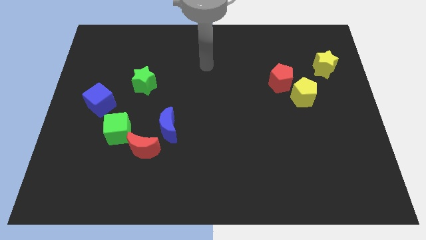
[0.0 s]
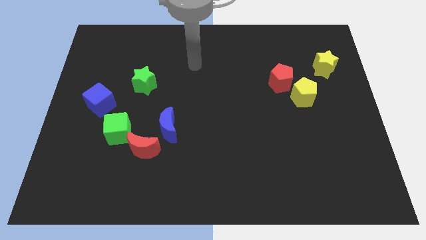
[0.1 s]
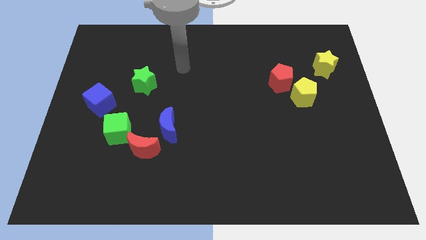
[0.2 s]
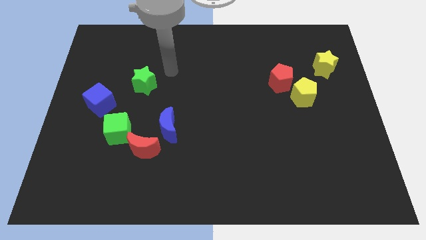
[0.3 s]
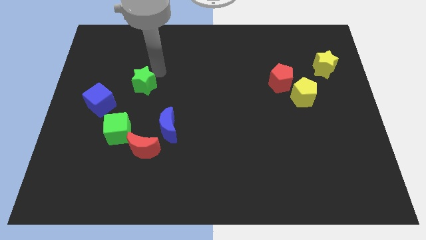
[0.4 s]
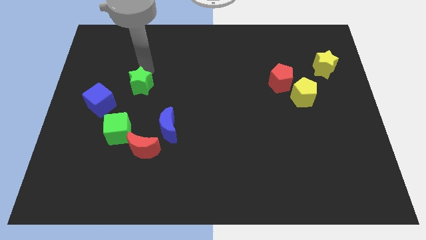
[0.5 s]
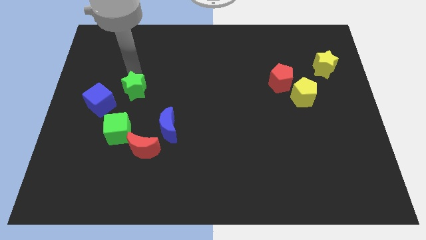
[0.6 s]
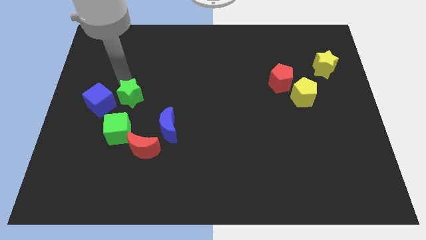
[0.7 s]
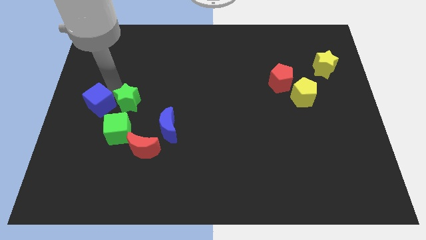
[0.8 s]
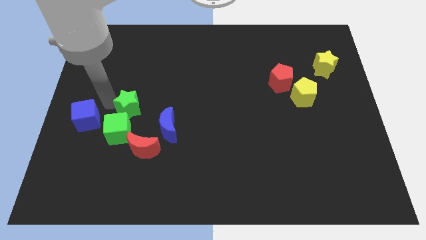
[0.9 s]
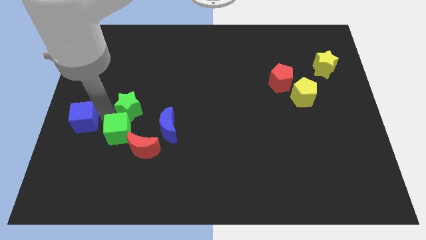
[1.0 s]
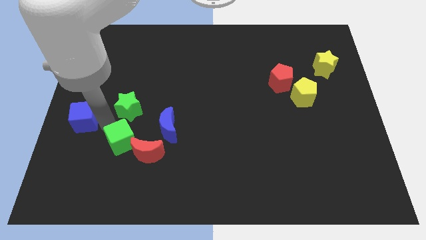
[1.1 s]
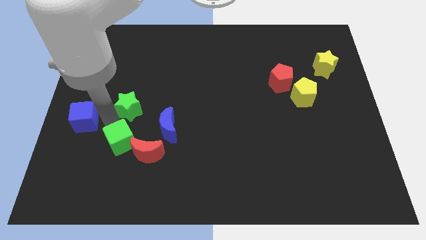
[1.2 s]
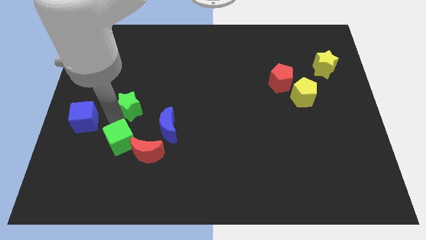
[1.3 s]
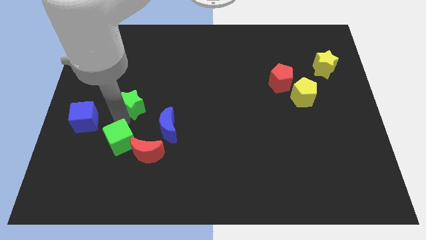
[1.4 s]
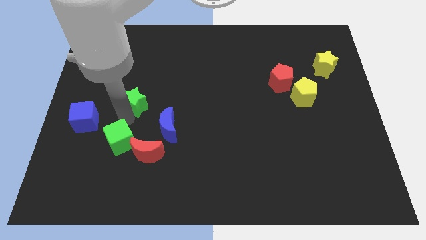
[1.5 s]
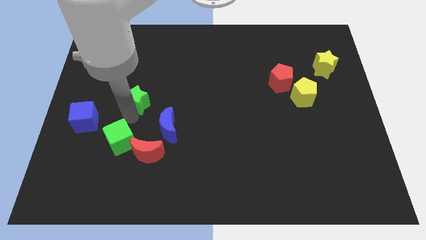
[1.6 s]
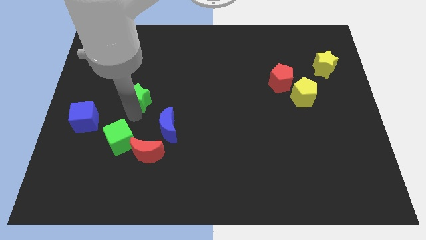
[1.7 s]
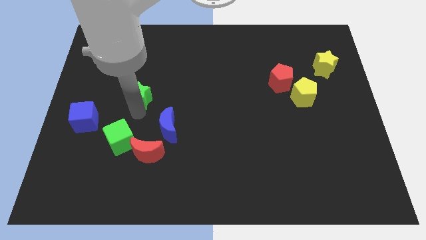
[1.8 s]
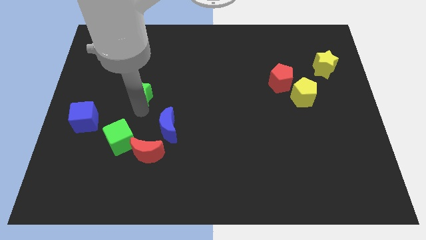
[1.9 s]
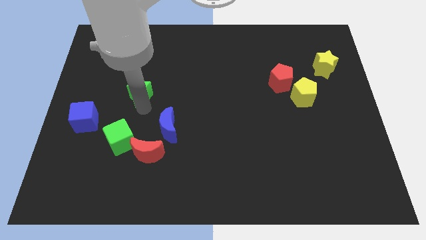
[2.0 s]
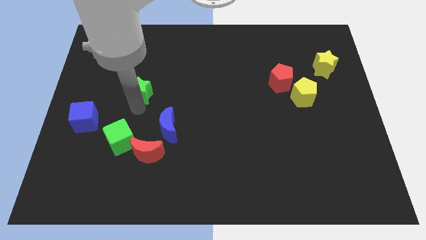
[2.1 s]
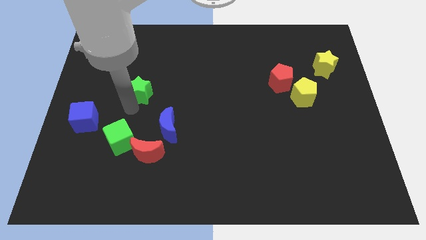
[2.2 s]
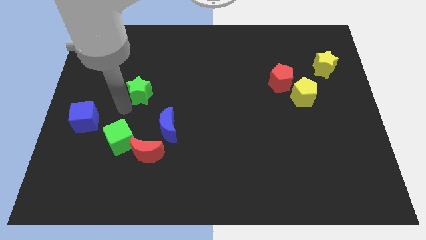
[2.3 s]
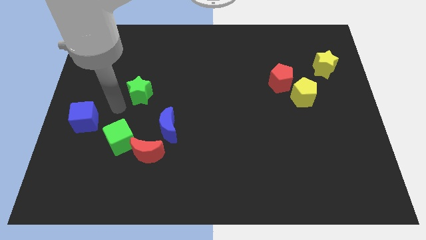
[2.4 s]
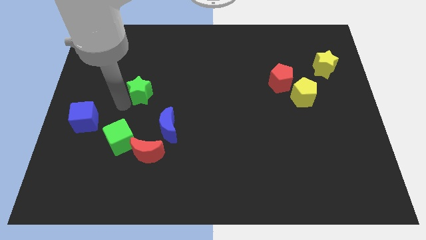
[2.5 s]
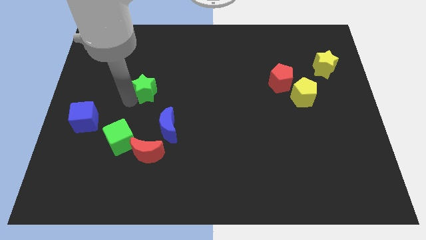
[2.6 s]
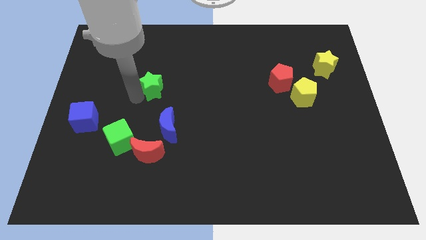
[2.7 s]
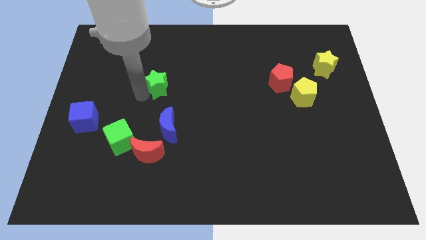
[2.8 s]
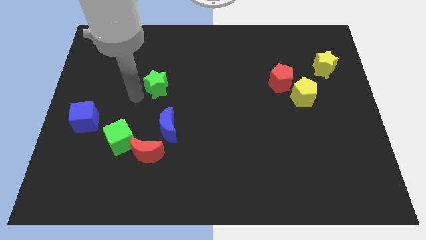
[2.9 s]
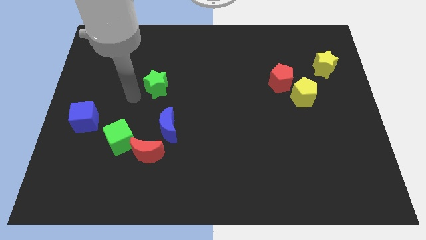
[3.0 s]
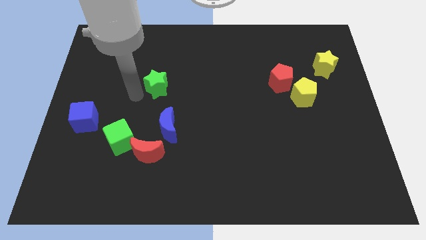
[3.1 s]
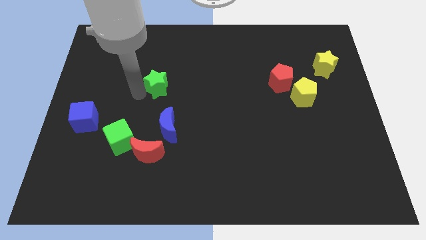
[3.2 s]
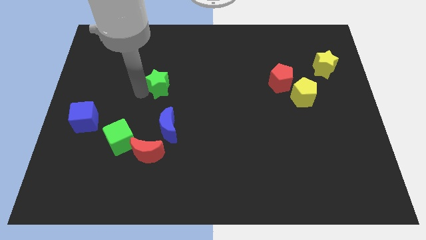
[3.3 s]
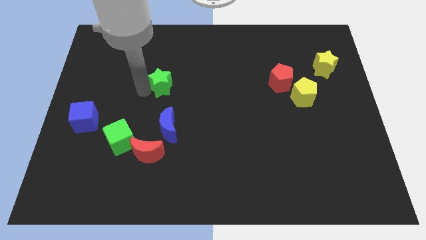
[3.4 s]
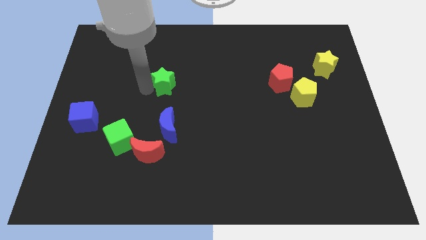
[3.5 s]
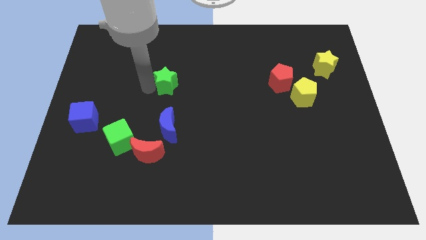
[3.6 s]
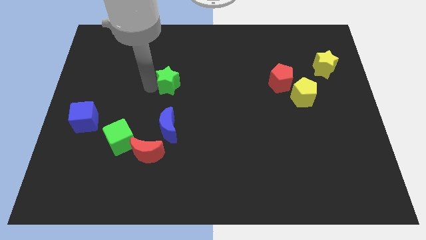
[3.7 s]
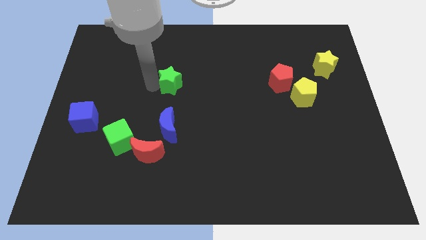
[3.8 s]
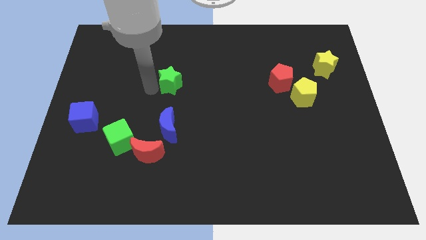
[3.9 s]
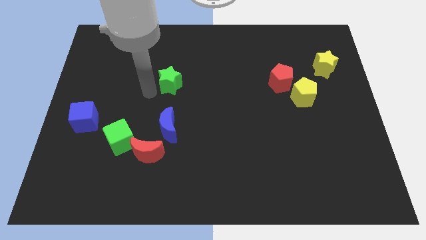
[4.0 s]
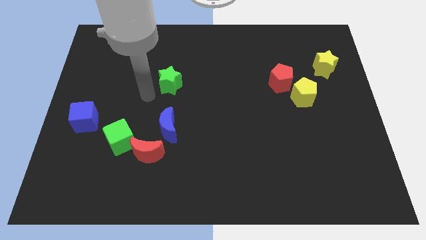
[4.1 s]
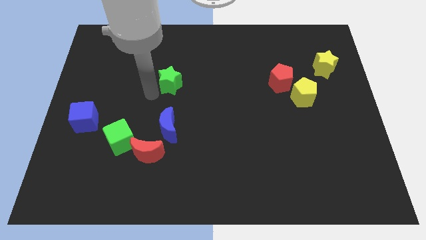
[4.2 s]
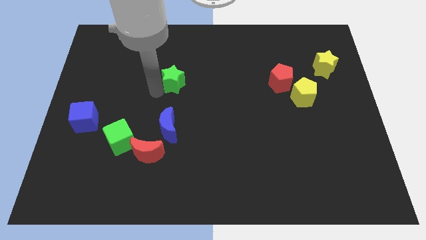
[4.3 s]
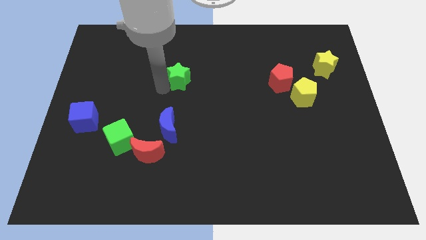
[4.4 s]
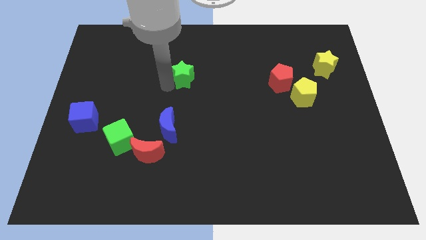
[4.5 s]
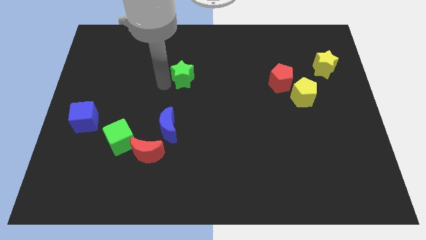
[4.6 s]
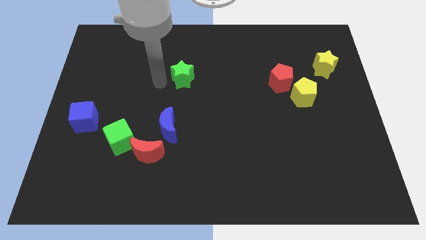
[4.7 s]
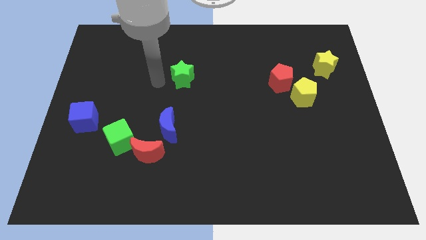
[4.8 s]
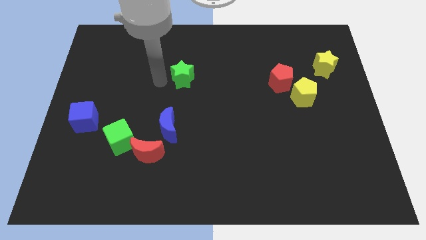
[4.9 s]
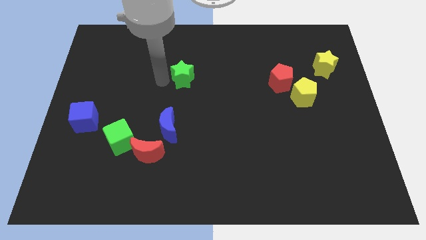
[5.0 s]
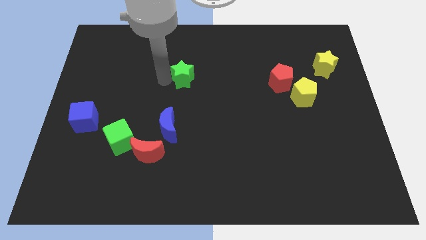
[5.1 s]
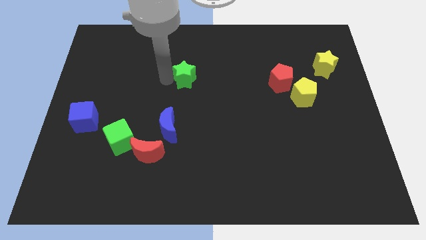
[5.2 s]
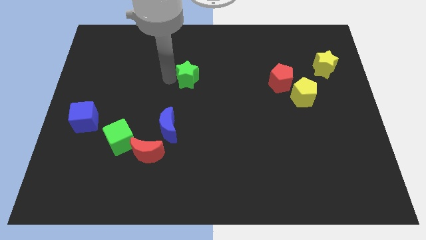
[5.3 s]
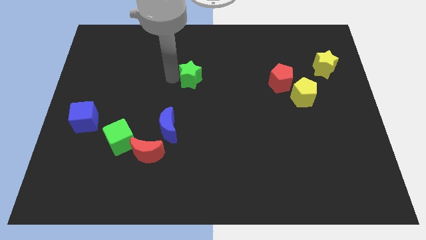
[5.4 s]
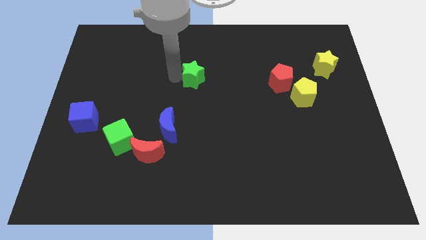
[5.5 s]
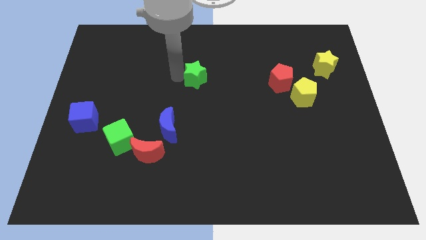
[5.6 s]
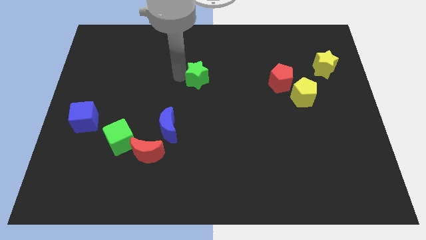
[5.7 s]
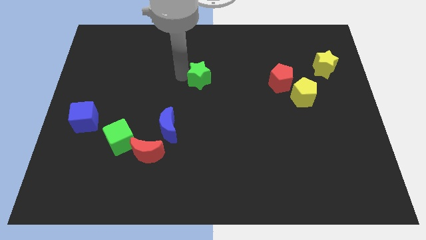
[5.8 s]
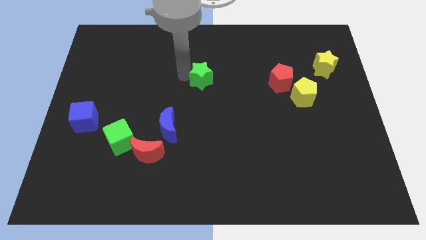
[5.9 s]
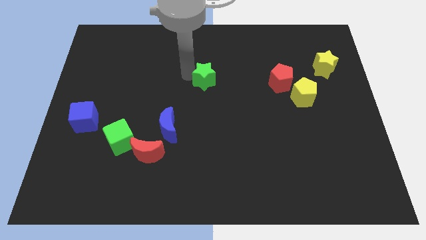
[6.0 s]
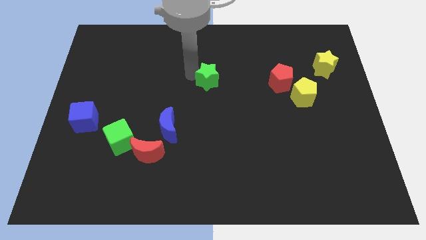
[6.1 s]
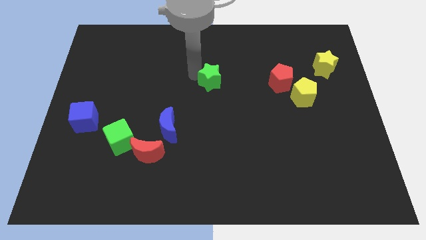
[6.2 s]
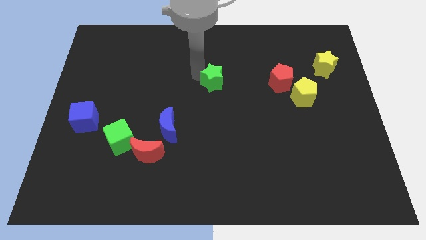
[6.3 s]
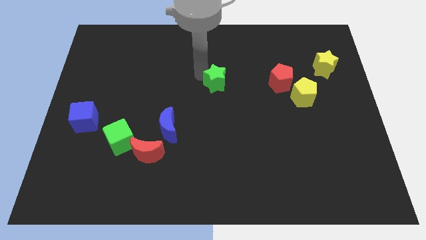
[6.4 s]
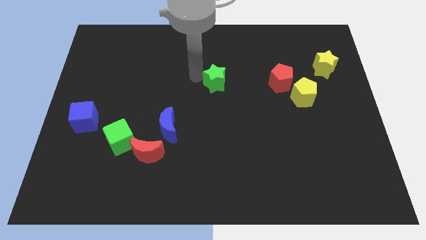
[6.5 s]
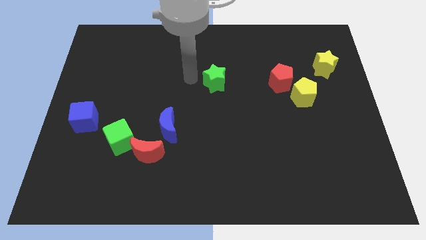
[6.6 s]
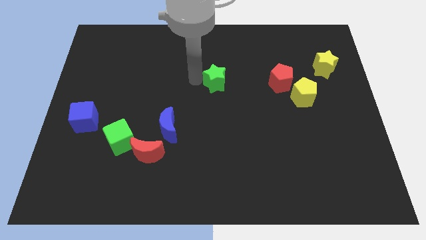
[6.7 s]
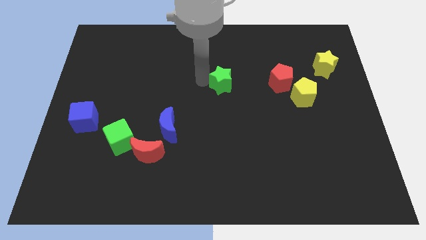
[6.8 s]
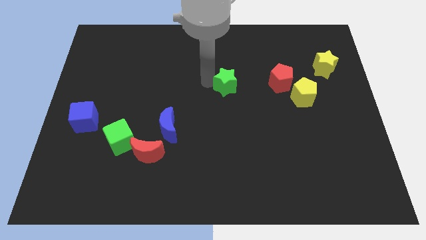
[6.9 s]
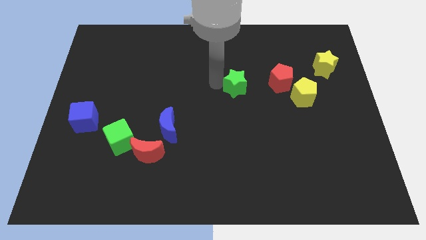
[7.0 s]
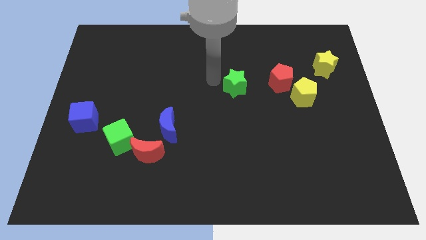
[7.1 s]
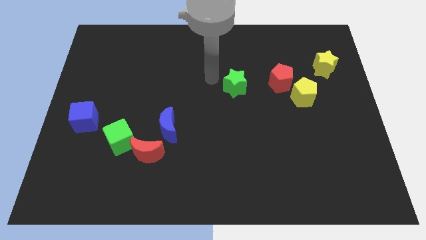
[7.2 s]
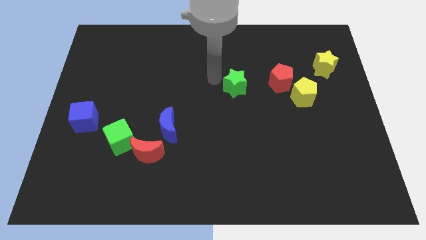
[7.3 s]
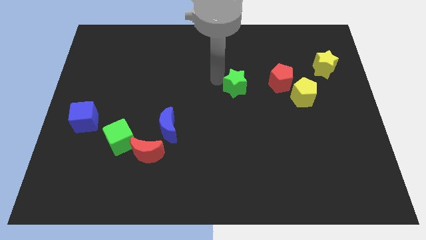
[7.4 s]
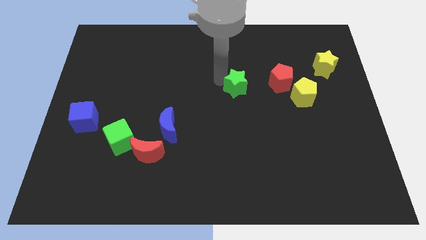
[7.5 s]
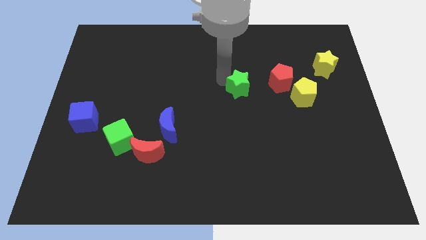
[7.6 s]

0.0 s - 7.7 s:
slide the green star left of the yellow pentagon
